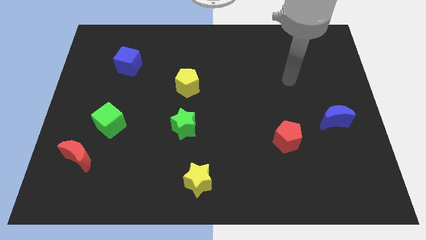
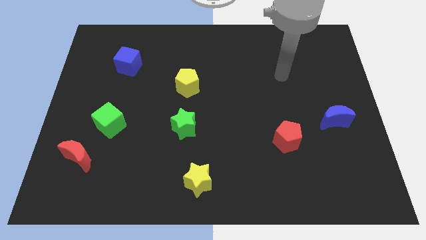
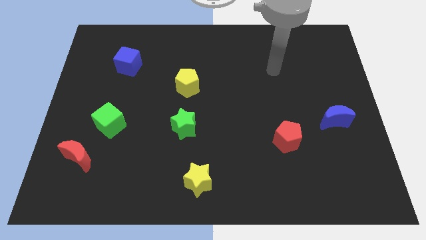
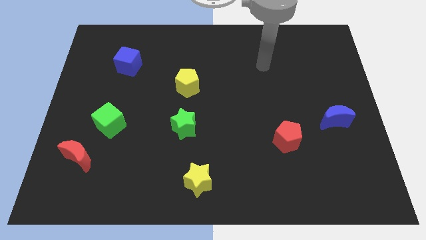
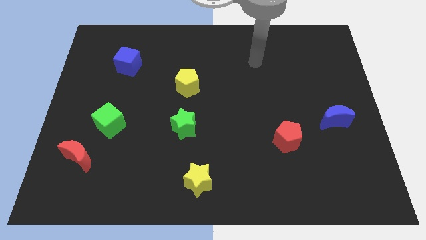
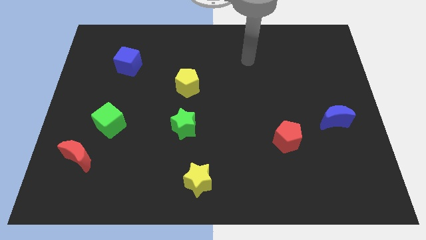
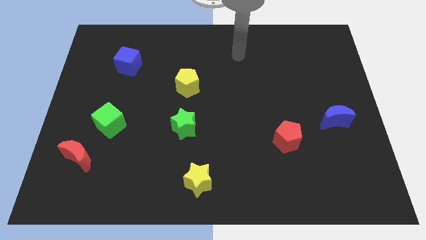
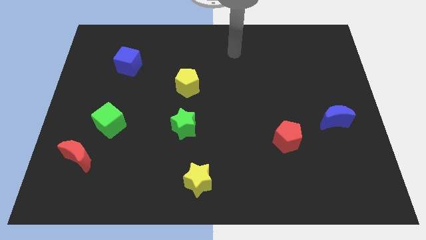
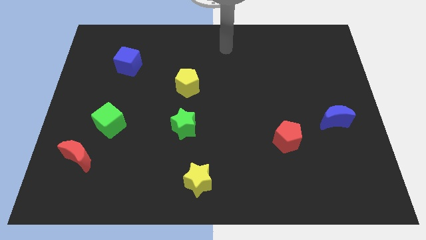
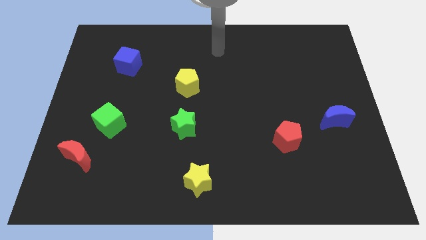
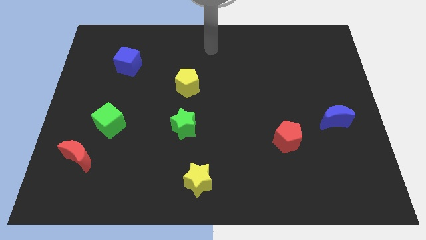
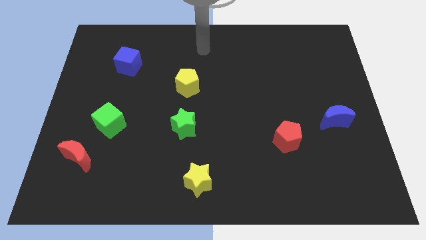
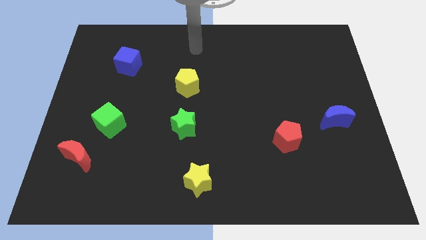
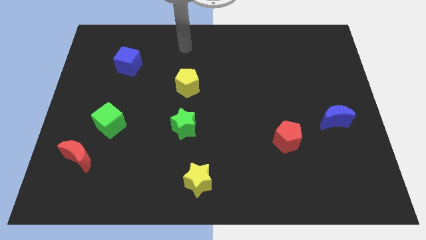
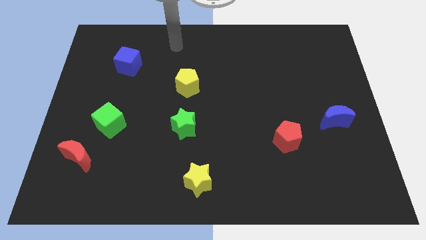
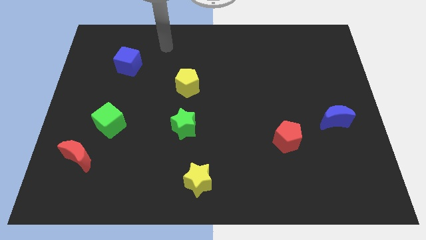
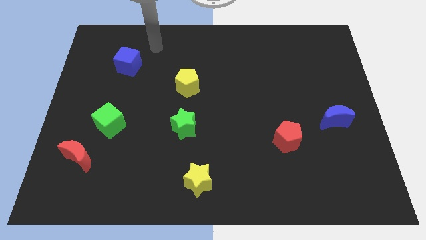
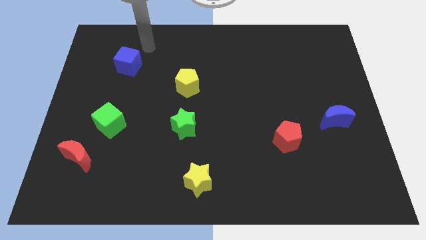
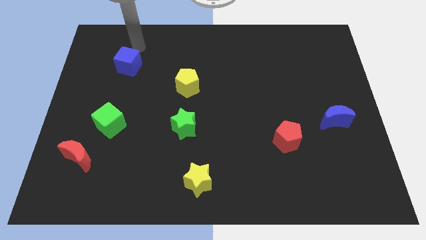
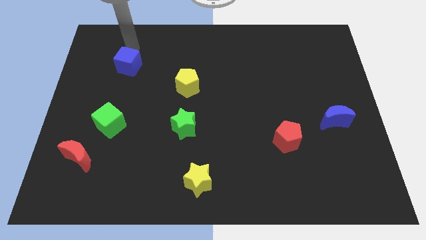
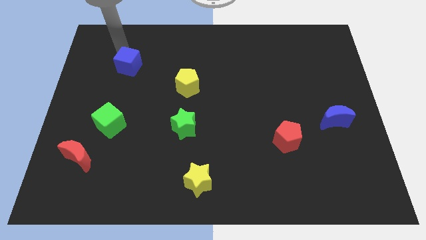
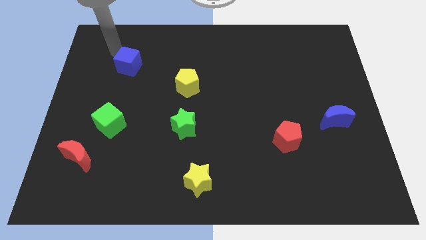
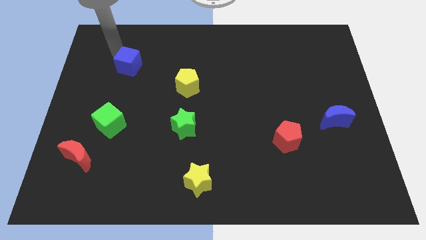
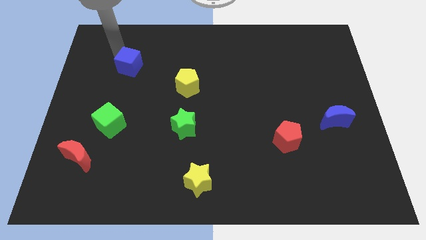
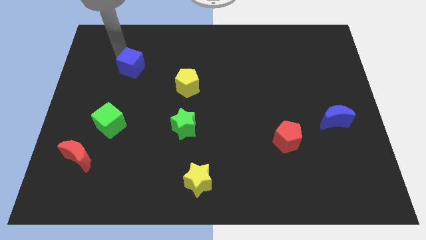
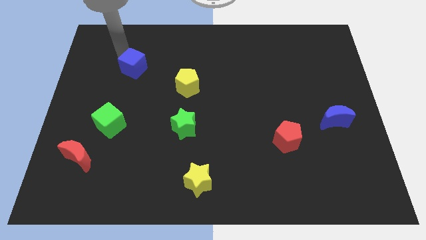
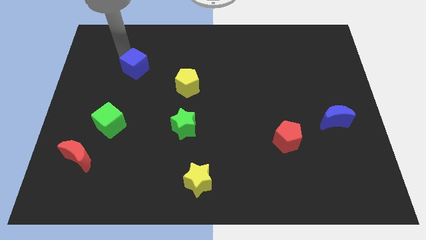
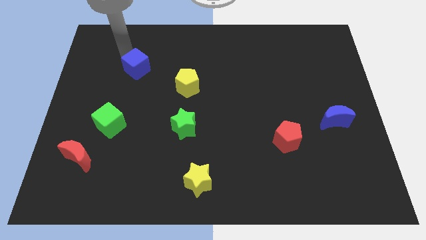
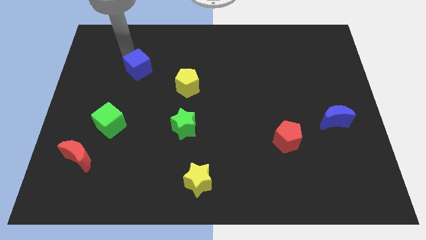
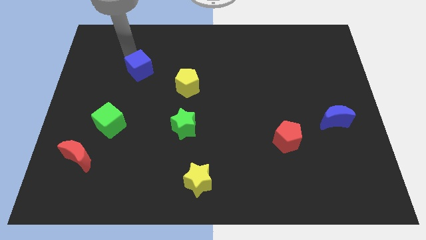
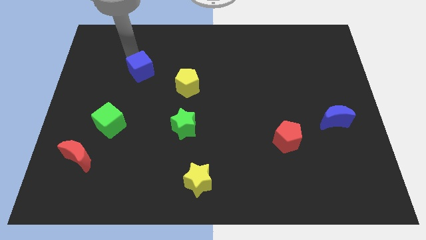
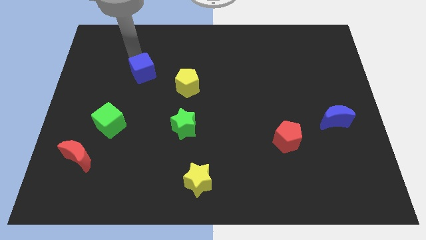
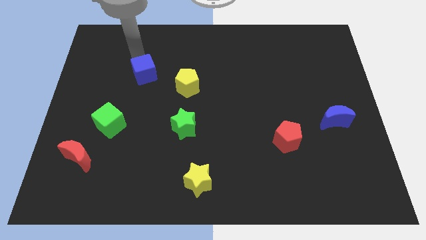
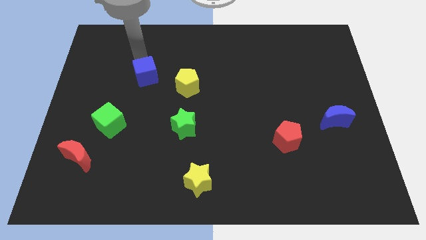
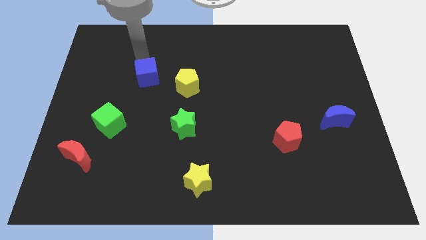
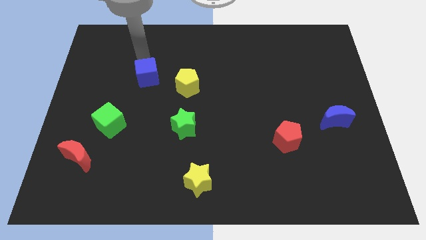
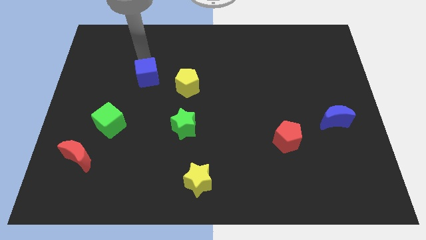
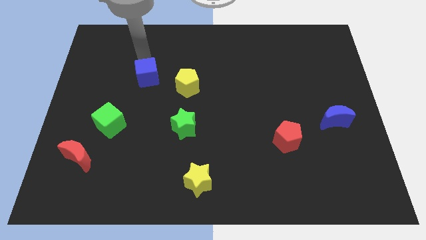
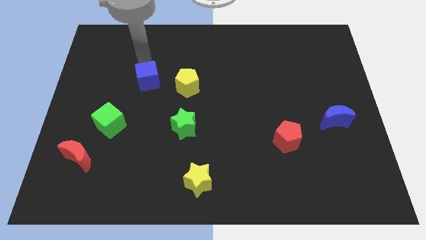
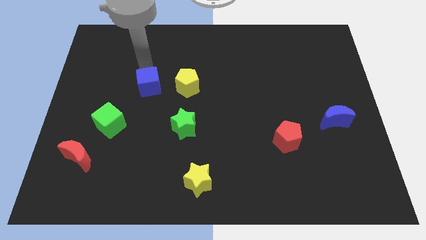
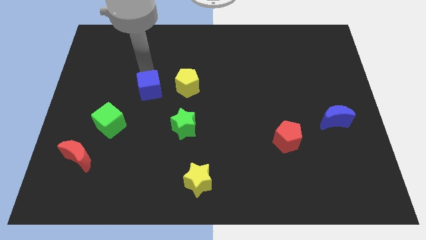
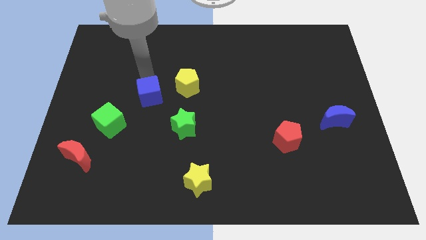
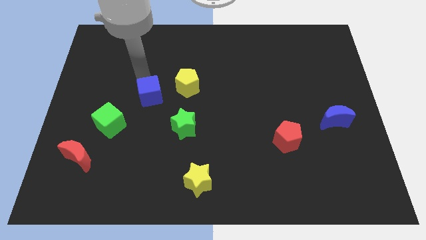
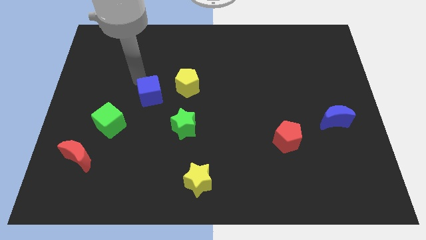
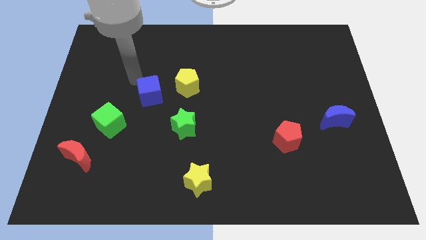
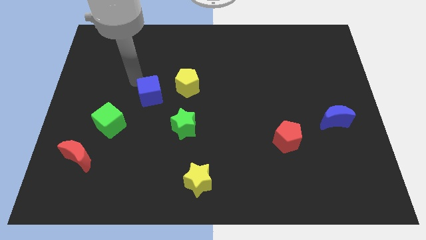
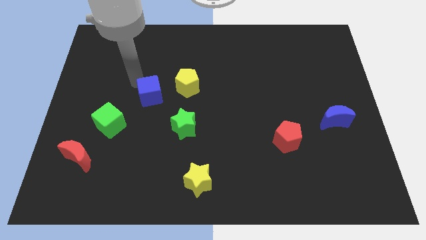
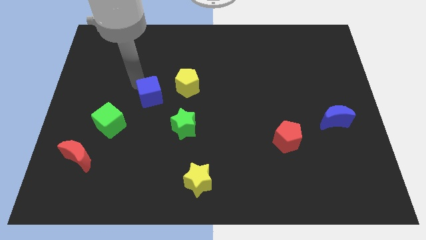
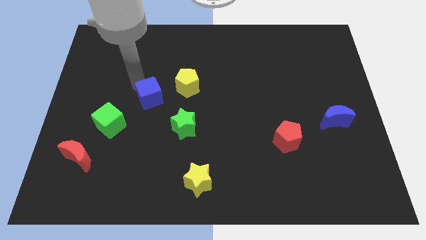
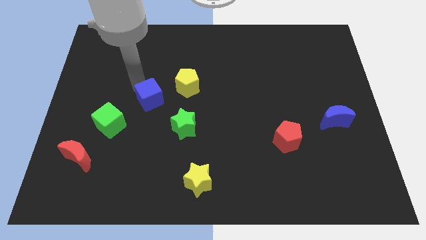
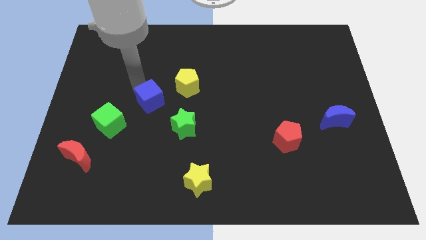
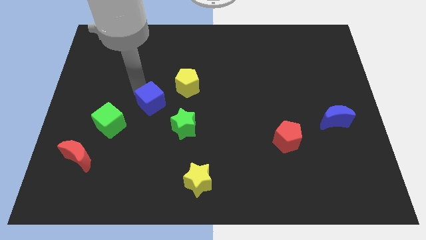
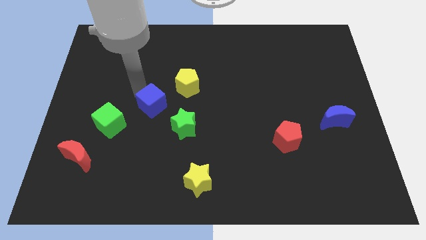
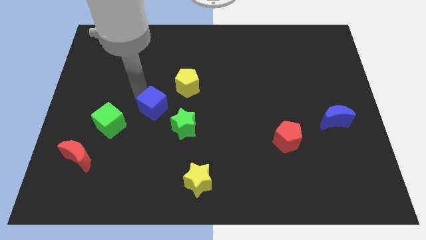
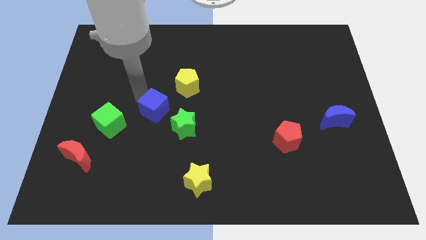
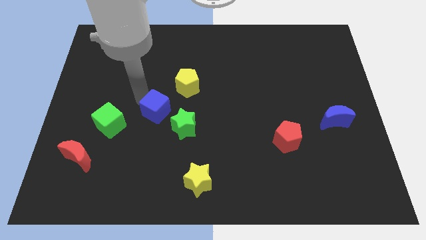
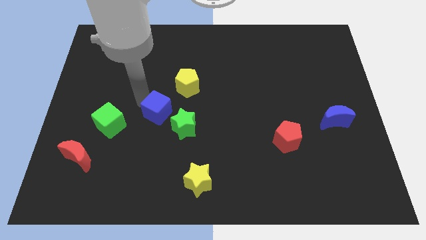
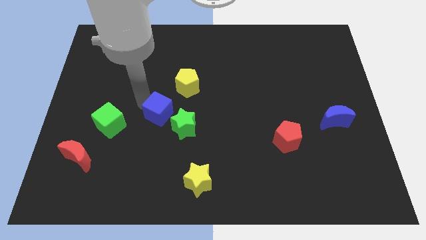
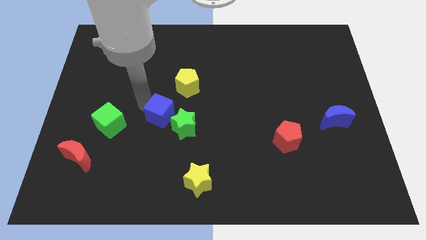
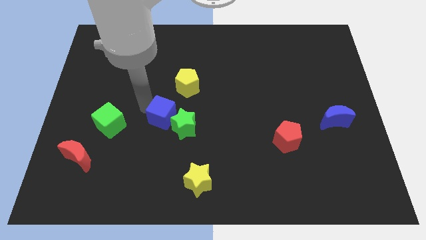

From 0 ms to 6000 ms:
put the blue cube towards the green star

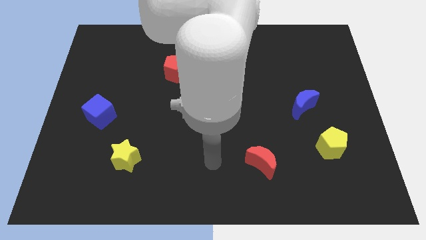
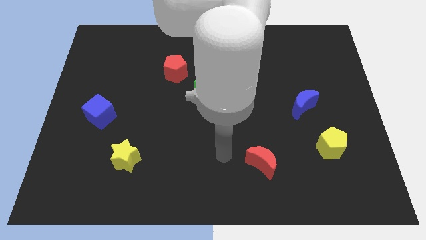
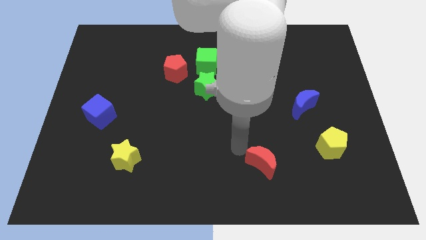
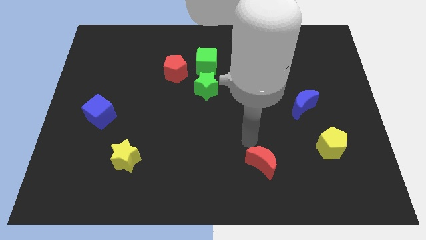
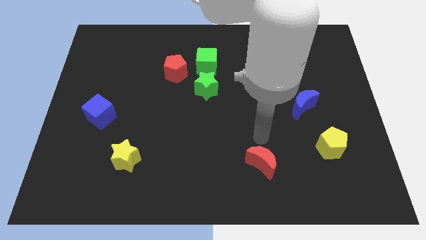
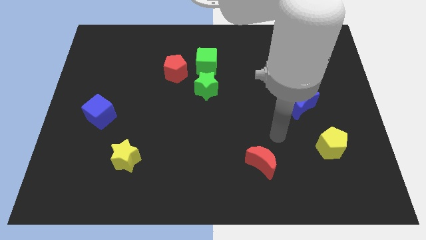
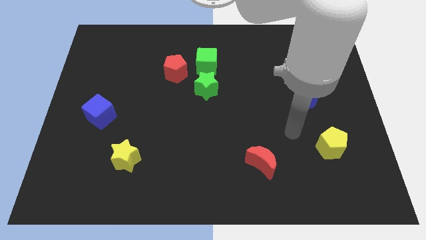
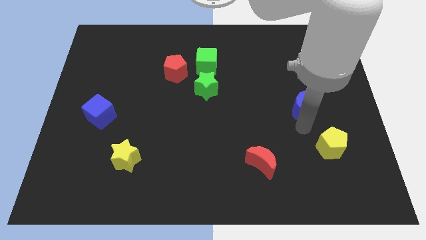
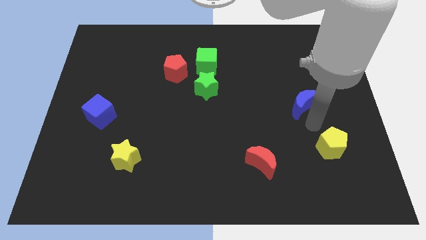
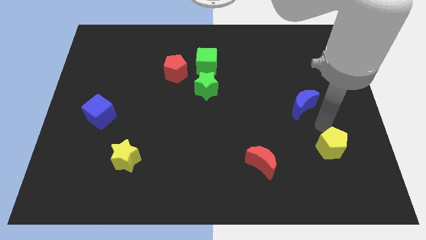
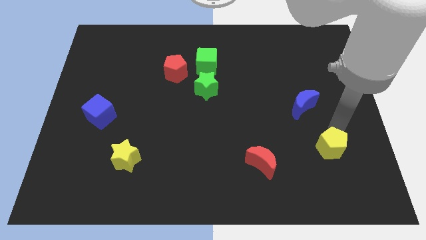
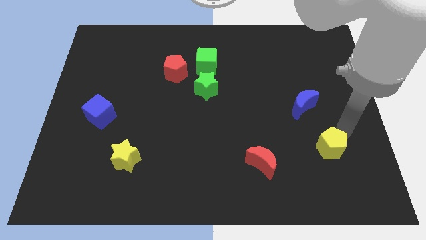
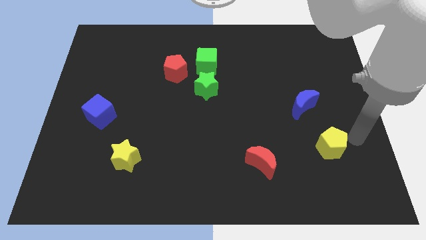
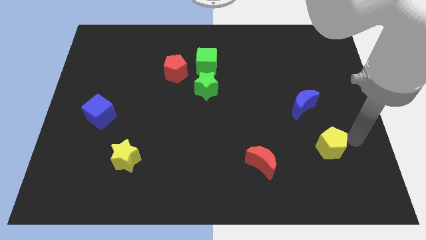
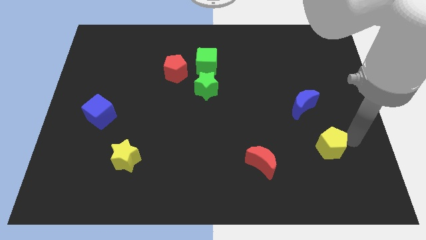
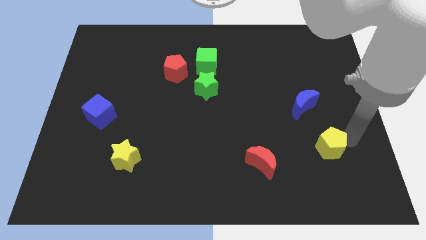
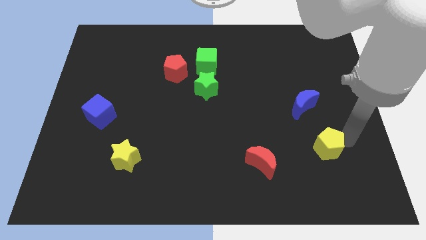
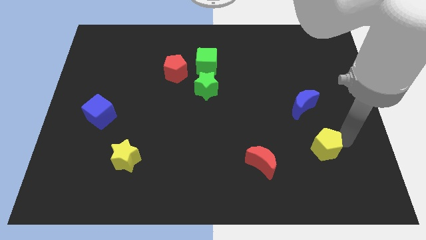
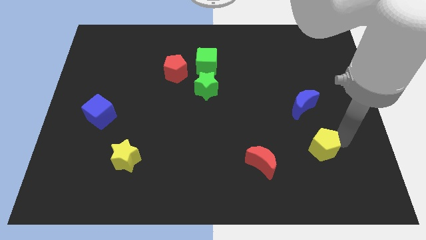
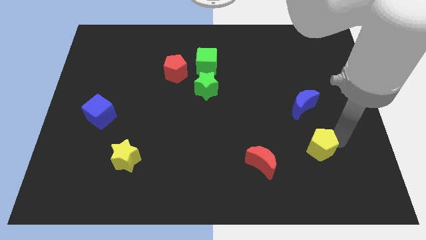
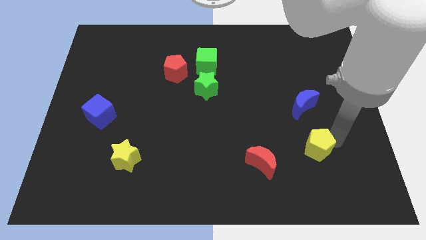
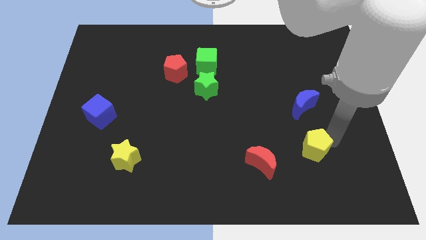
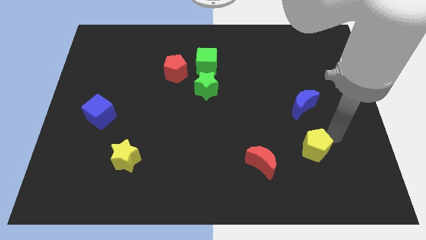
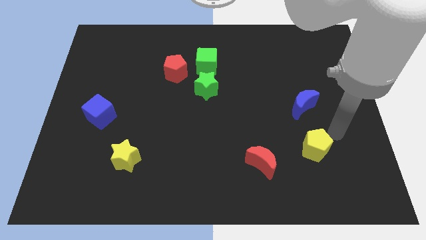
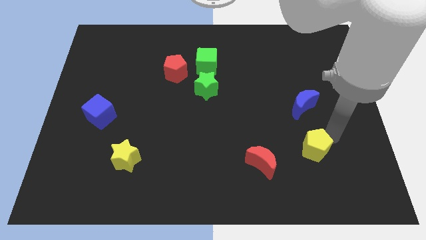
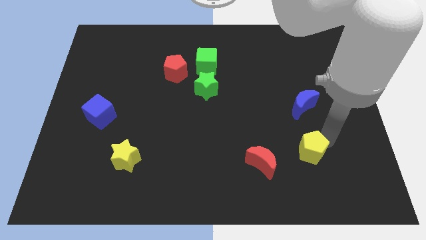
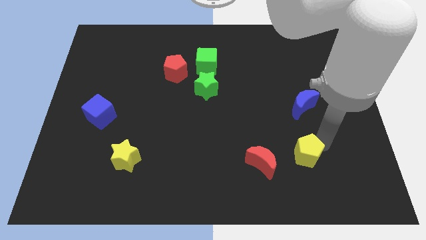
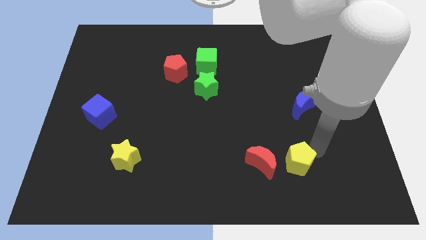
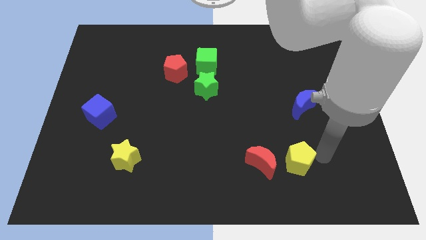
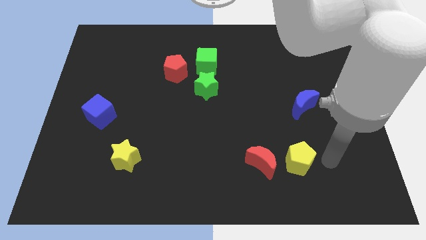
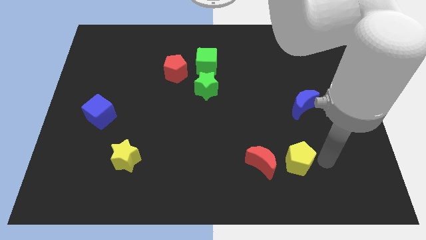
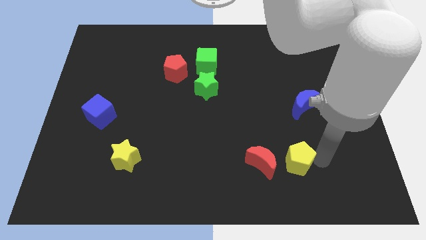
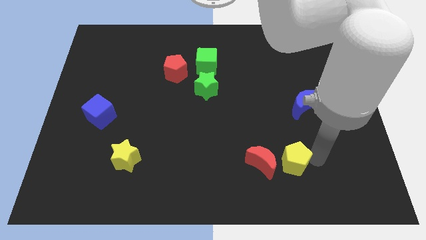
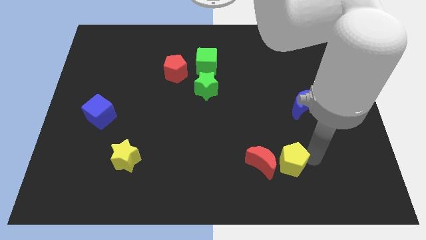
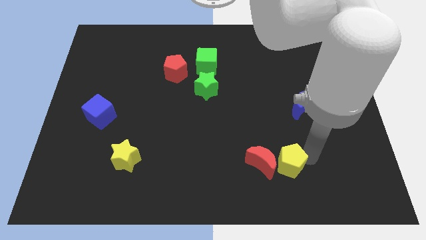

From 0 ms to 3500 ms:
slide the yellow pentagon towards the red moon
